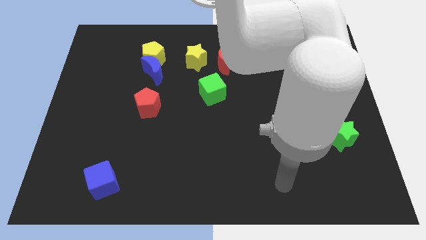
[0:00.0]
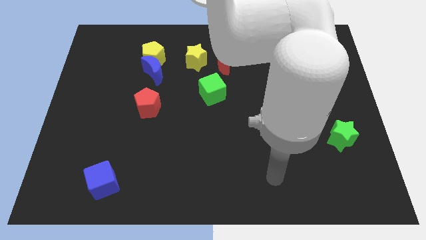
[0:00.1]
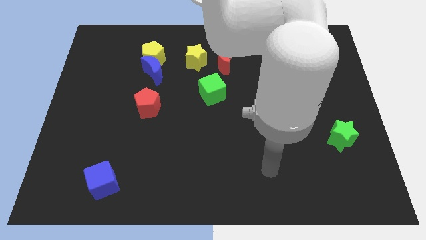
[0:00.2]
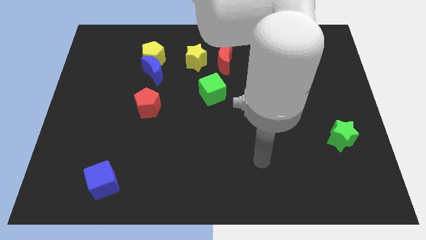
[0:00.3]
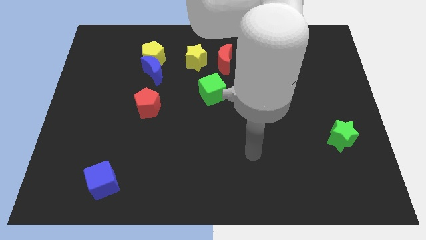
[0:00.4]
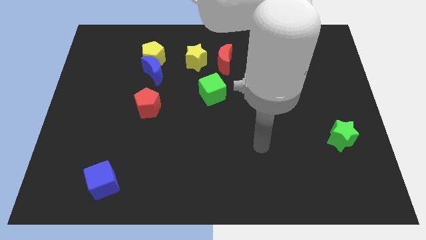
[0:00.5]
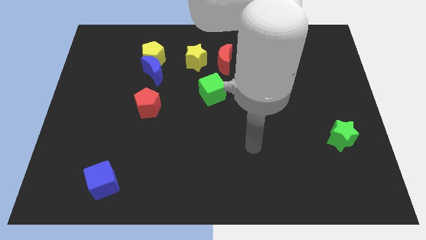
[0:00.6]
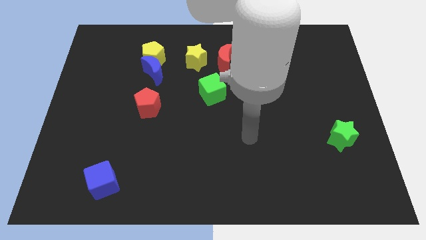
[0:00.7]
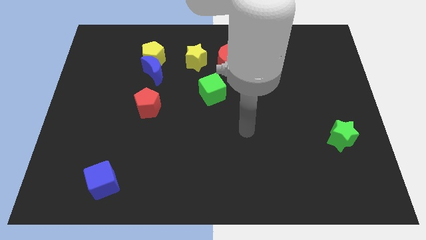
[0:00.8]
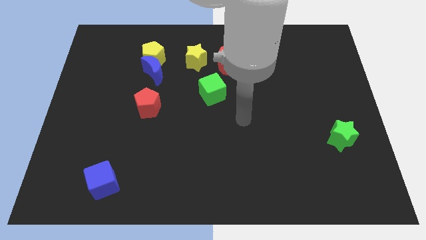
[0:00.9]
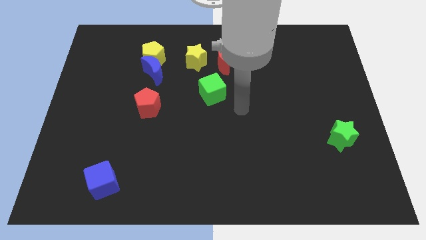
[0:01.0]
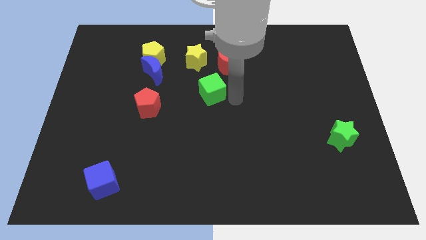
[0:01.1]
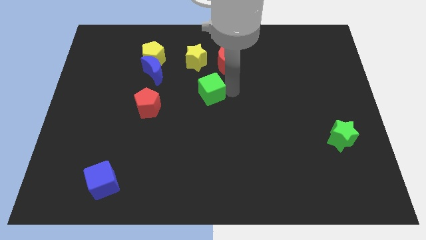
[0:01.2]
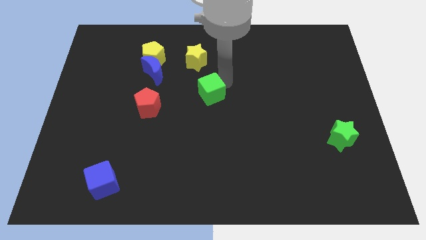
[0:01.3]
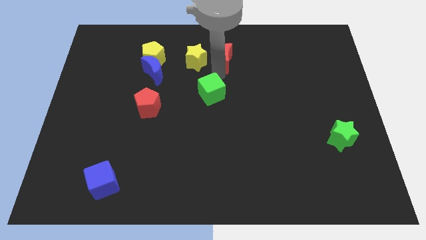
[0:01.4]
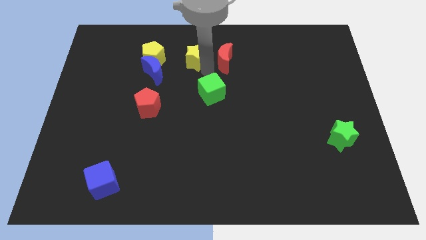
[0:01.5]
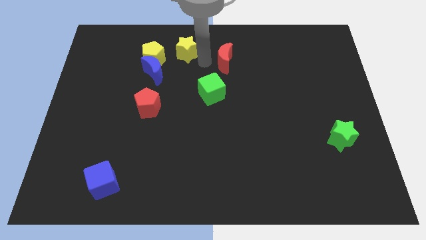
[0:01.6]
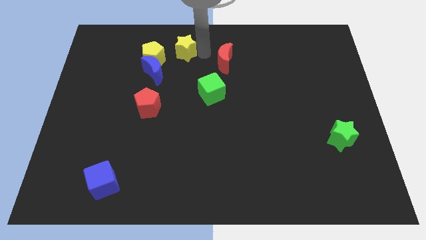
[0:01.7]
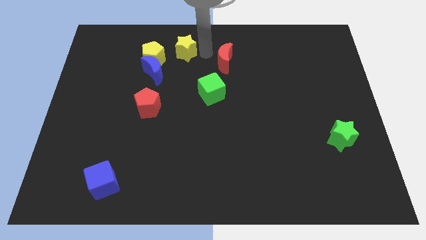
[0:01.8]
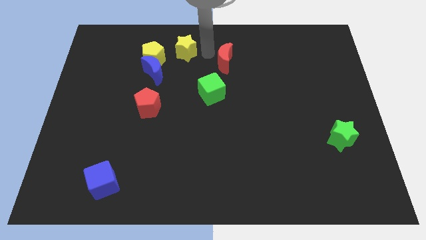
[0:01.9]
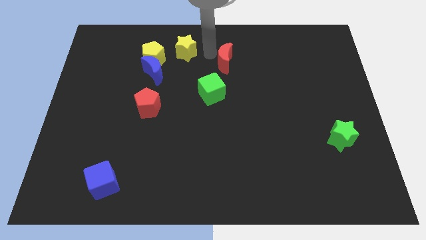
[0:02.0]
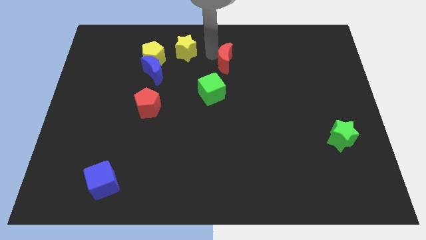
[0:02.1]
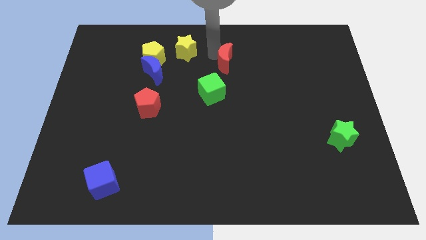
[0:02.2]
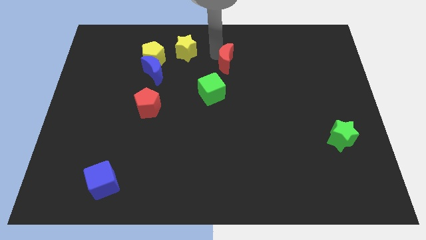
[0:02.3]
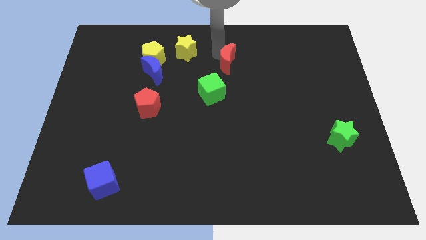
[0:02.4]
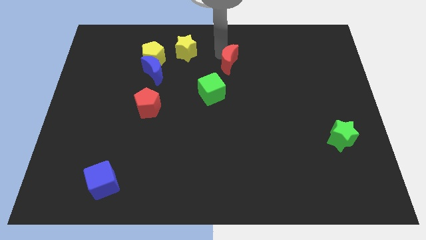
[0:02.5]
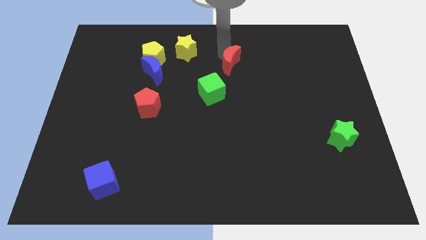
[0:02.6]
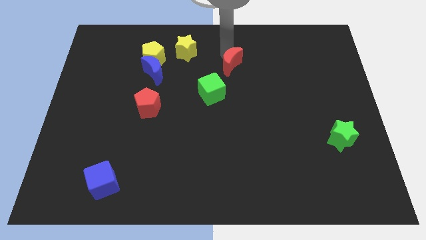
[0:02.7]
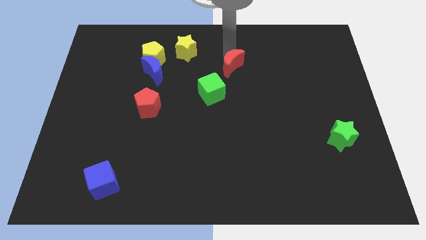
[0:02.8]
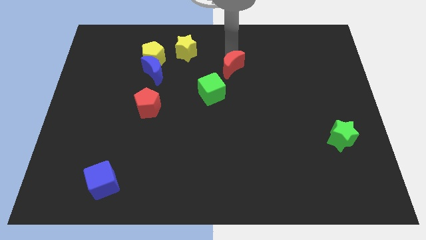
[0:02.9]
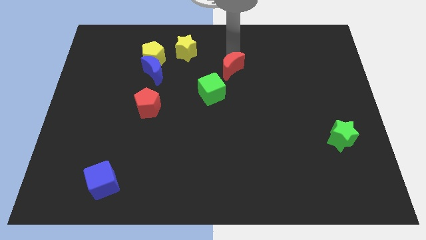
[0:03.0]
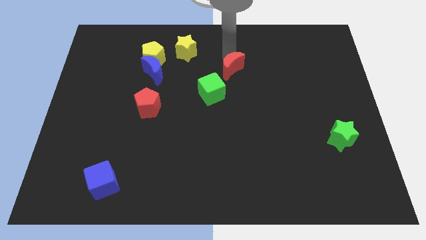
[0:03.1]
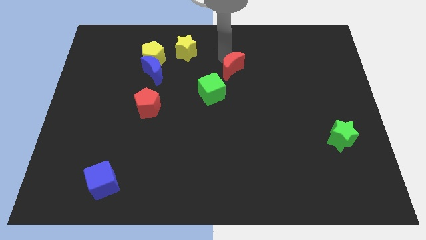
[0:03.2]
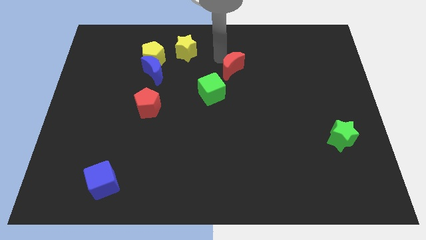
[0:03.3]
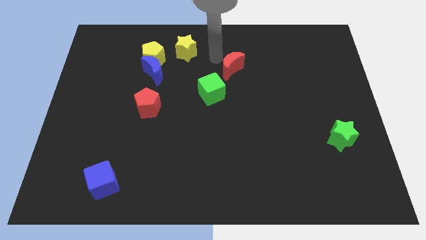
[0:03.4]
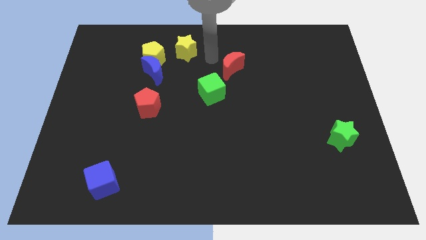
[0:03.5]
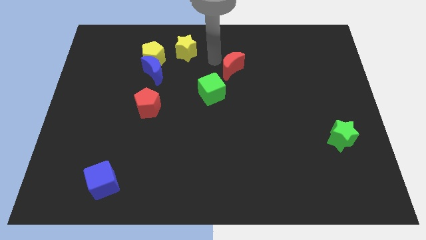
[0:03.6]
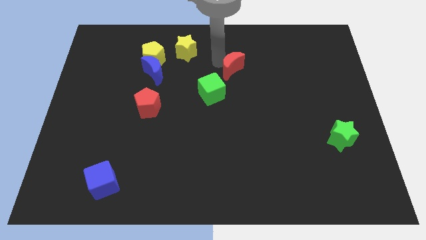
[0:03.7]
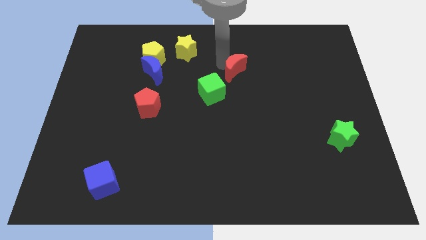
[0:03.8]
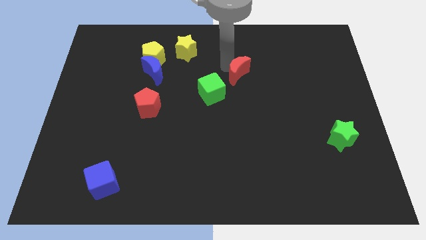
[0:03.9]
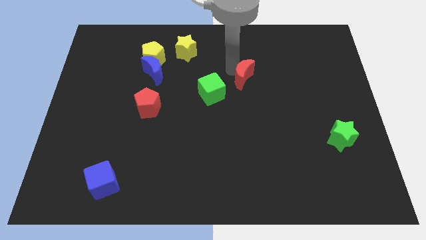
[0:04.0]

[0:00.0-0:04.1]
move the red moon downwards and right a little bit

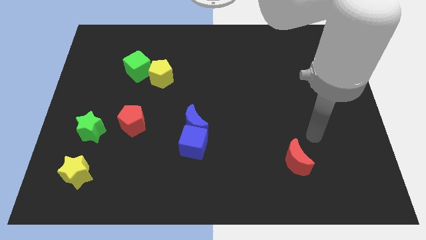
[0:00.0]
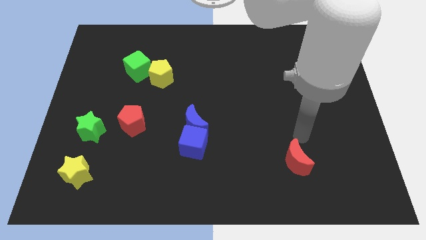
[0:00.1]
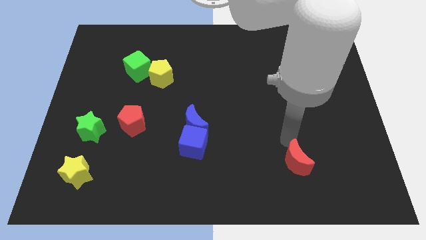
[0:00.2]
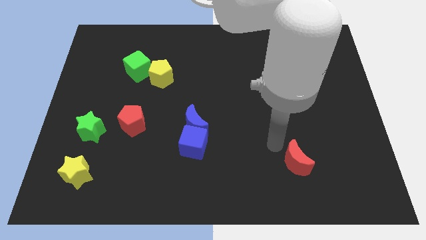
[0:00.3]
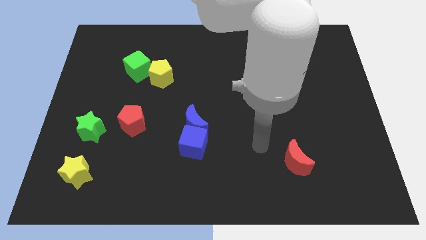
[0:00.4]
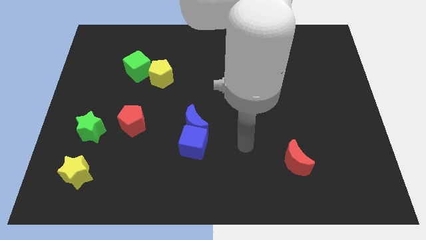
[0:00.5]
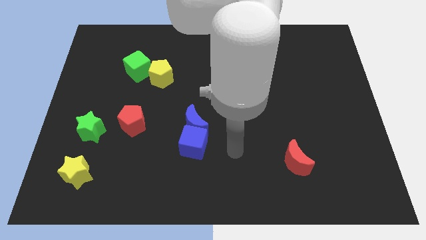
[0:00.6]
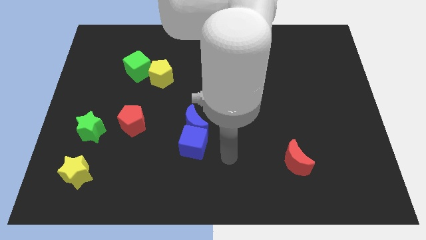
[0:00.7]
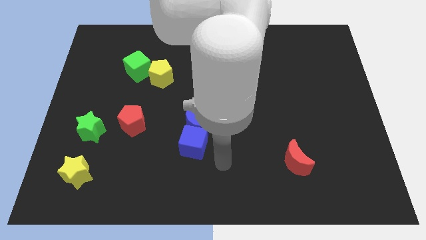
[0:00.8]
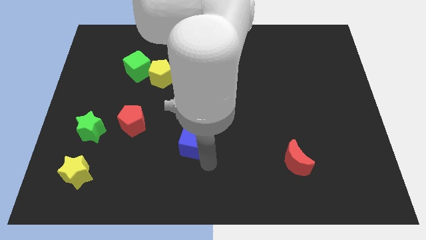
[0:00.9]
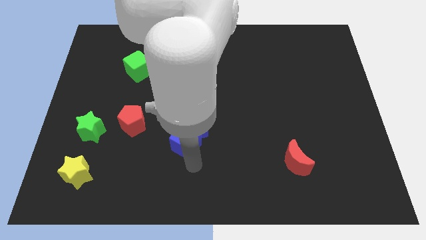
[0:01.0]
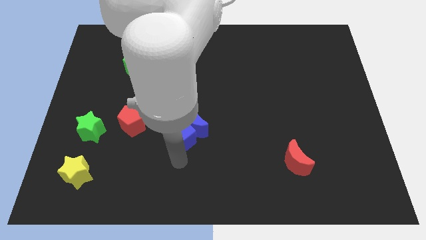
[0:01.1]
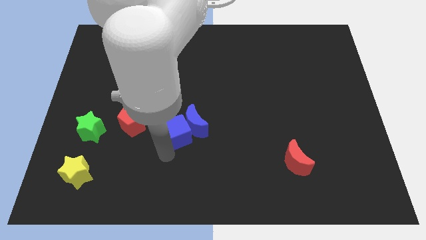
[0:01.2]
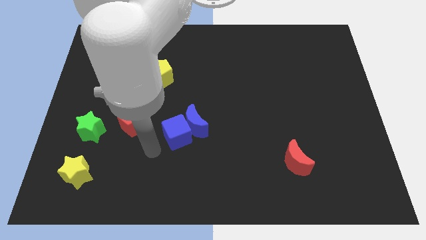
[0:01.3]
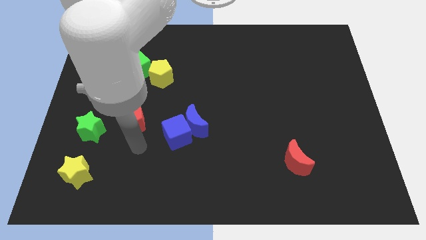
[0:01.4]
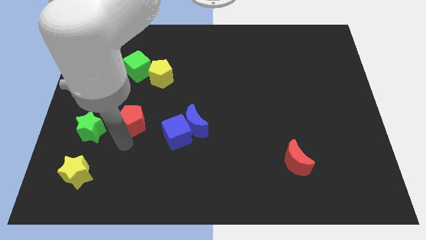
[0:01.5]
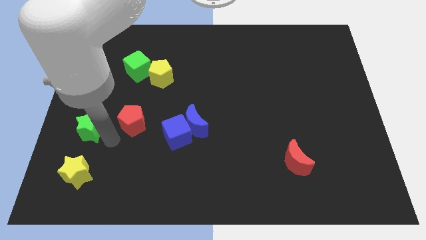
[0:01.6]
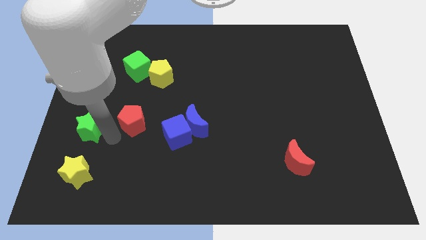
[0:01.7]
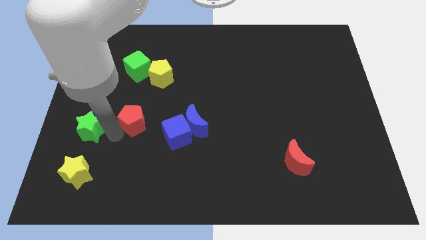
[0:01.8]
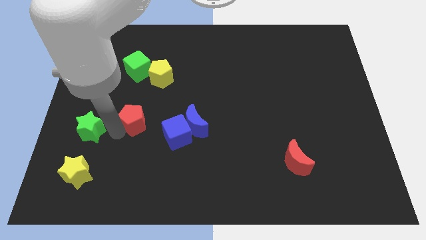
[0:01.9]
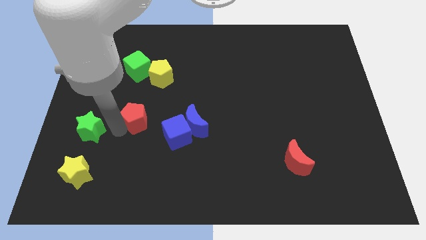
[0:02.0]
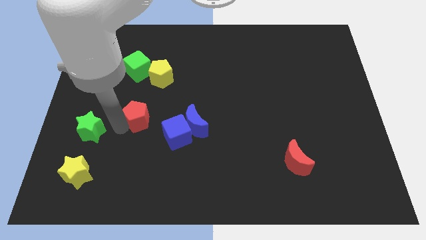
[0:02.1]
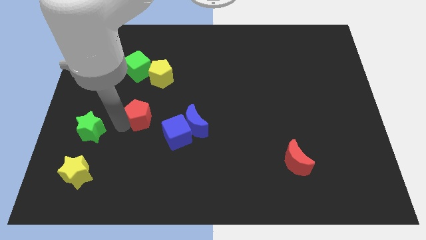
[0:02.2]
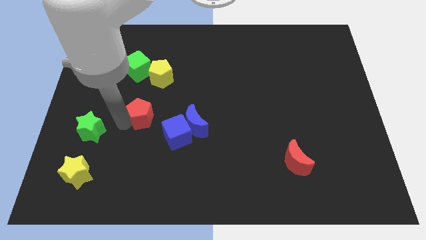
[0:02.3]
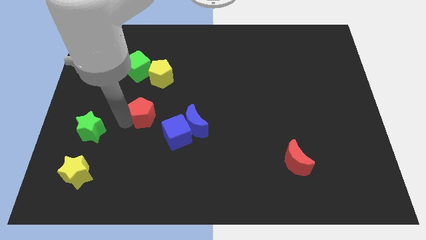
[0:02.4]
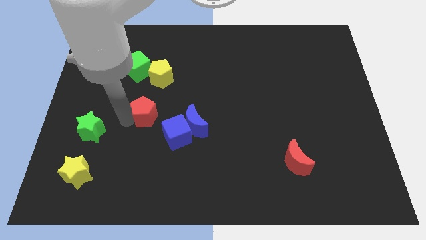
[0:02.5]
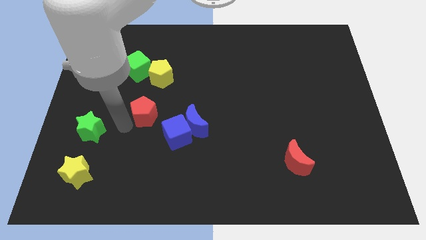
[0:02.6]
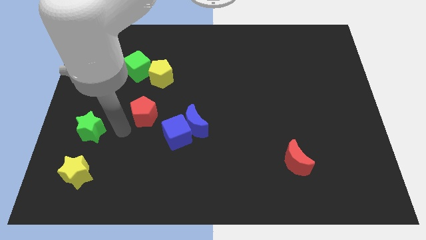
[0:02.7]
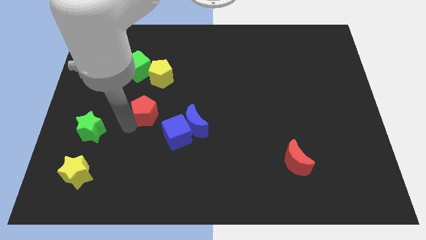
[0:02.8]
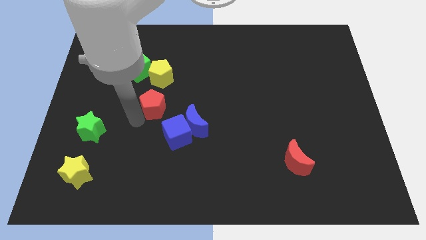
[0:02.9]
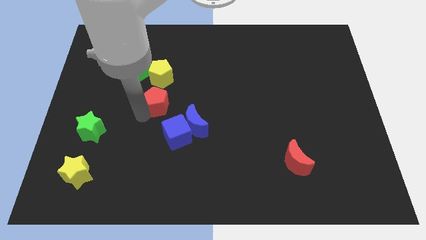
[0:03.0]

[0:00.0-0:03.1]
move the red pentagon somewhat diagonally up and to the right

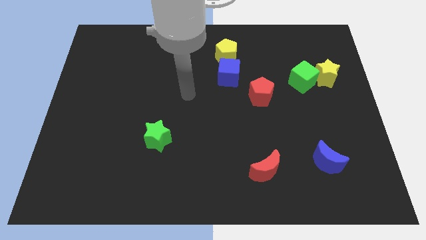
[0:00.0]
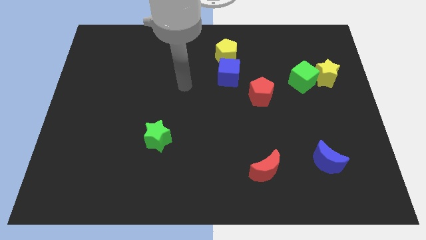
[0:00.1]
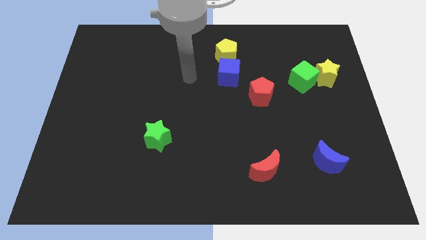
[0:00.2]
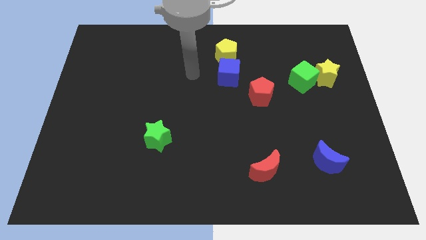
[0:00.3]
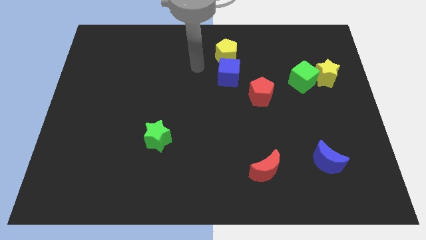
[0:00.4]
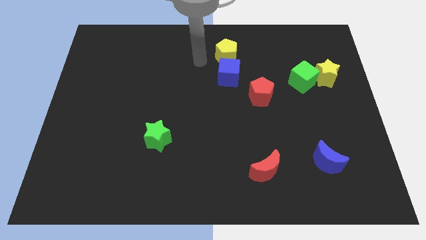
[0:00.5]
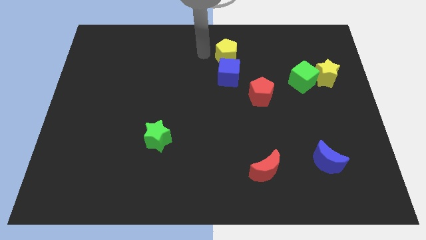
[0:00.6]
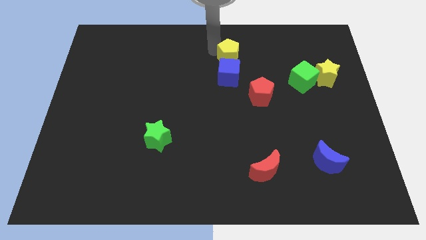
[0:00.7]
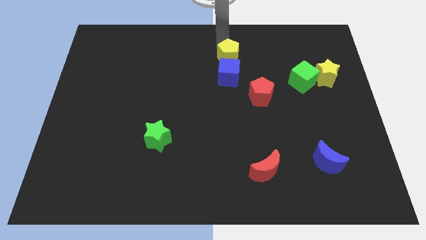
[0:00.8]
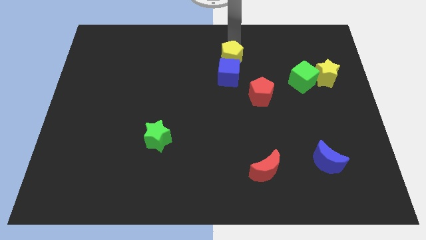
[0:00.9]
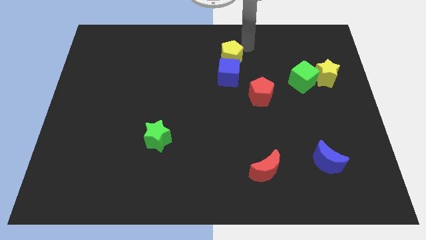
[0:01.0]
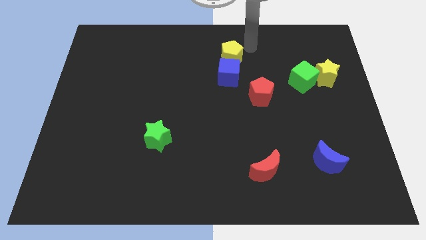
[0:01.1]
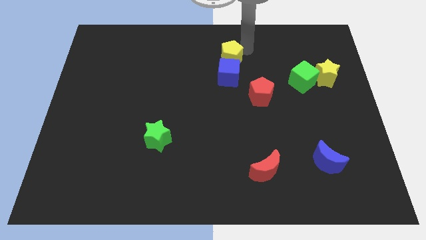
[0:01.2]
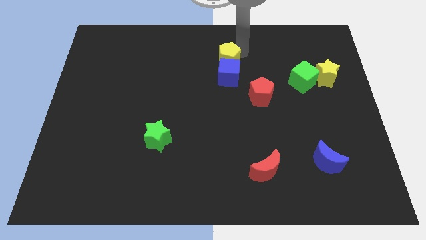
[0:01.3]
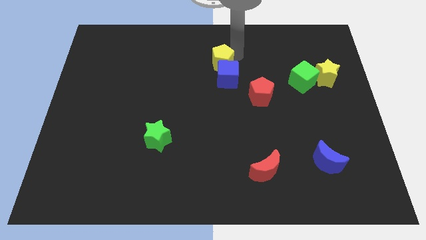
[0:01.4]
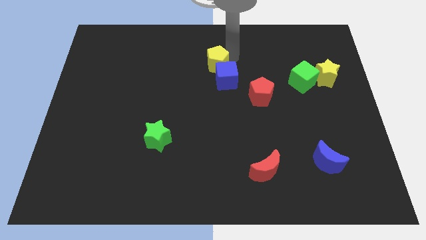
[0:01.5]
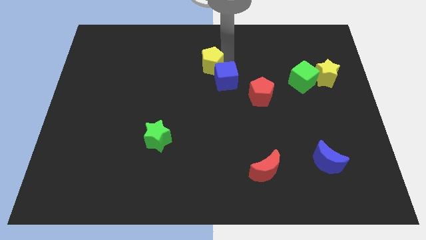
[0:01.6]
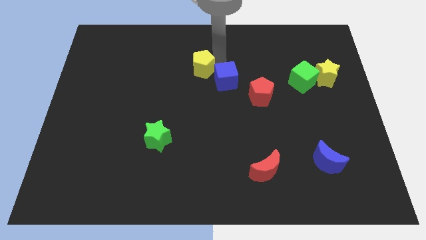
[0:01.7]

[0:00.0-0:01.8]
slide the yellow pentagon down and to the left a little
